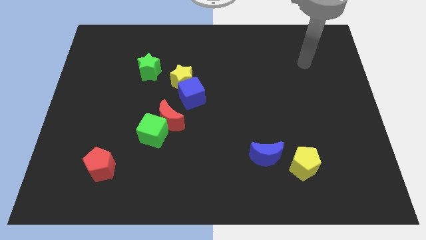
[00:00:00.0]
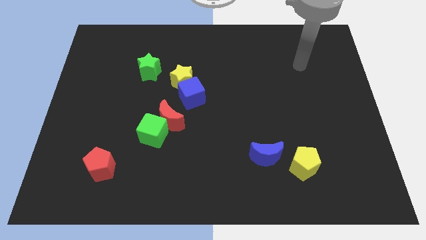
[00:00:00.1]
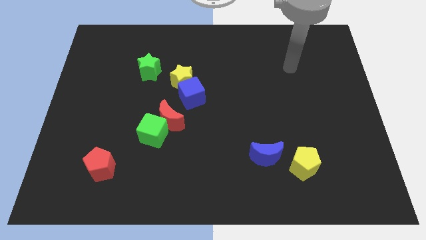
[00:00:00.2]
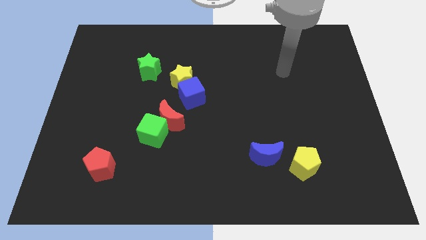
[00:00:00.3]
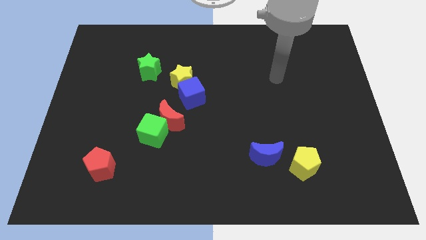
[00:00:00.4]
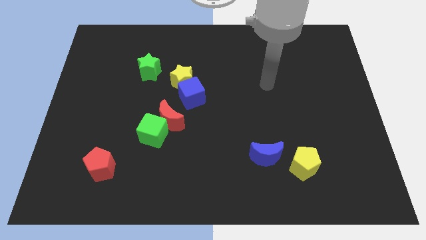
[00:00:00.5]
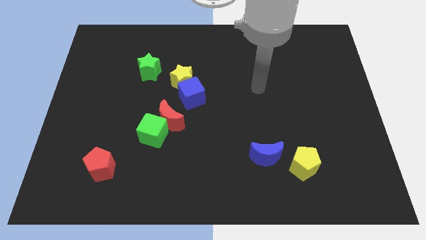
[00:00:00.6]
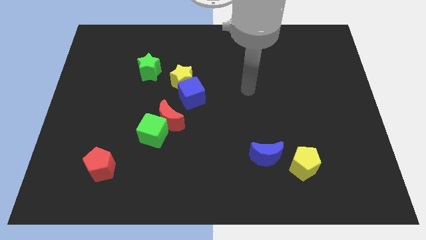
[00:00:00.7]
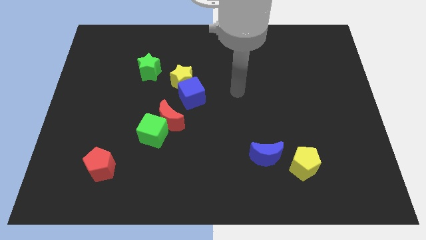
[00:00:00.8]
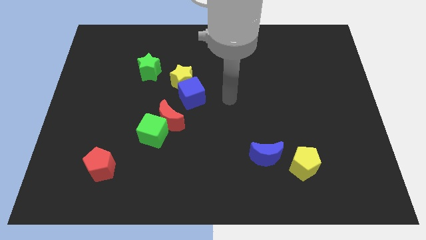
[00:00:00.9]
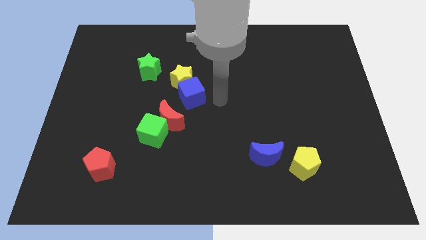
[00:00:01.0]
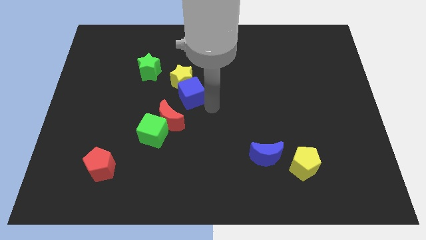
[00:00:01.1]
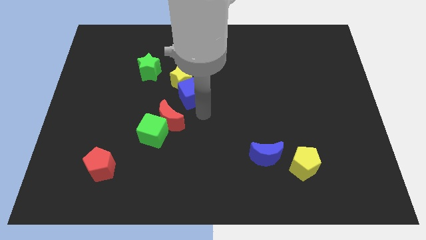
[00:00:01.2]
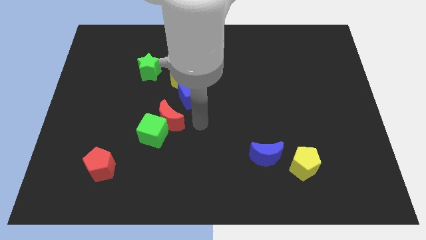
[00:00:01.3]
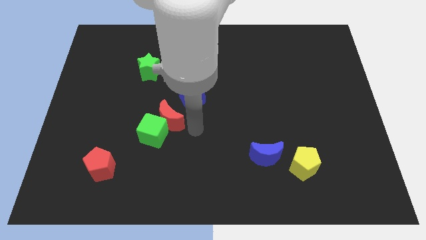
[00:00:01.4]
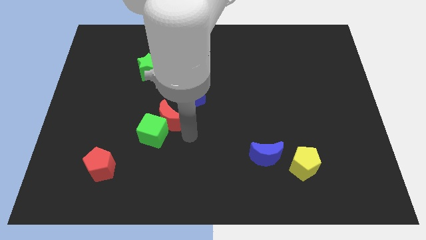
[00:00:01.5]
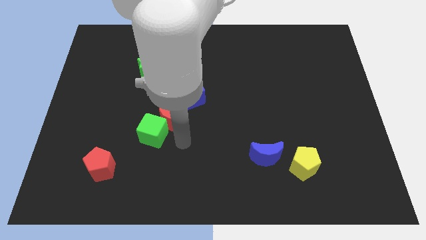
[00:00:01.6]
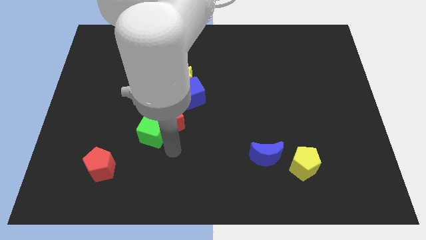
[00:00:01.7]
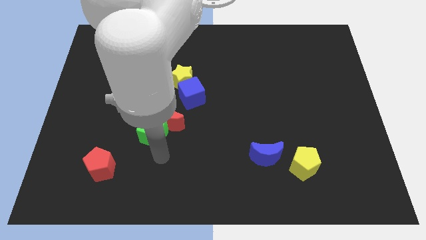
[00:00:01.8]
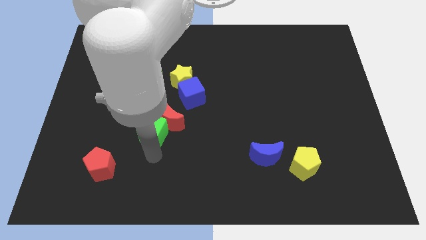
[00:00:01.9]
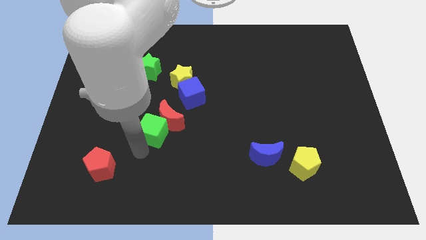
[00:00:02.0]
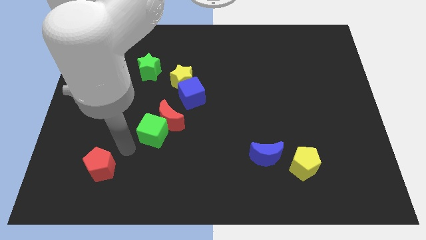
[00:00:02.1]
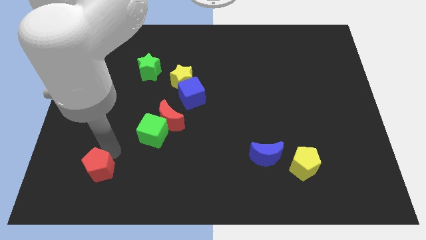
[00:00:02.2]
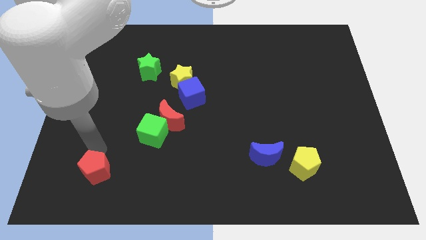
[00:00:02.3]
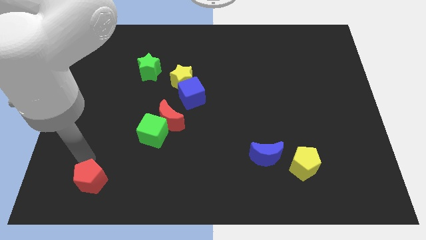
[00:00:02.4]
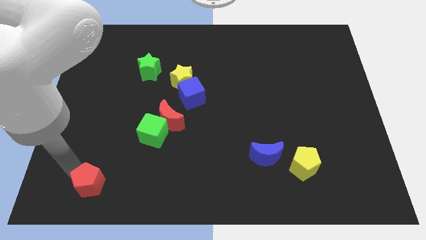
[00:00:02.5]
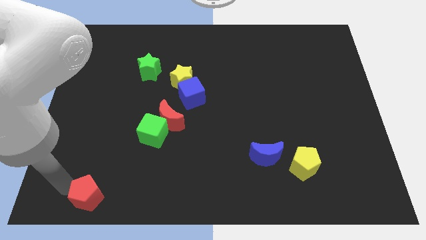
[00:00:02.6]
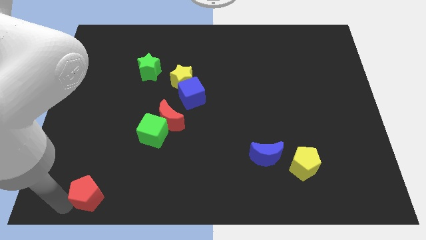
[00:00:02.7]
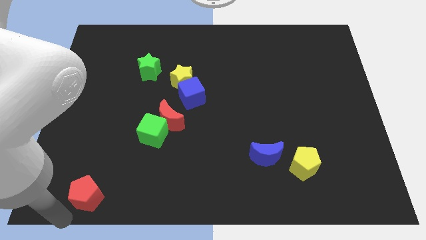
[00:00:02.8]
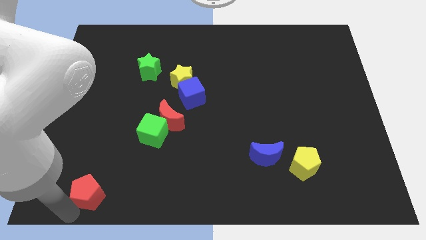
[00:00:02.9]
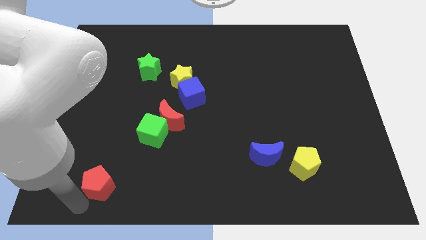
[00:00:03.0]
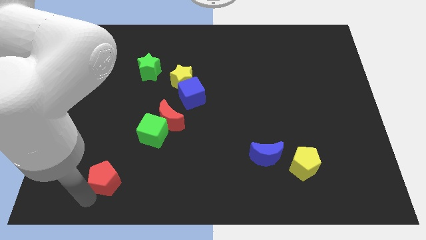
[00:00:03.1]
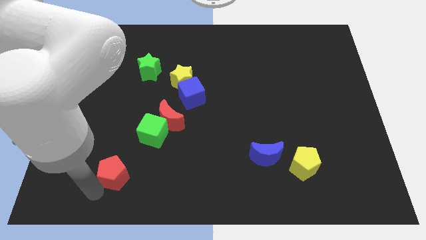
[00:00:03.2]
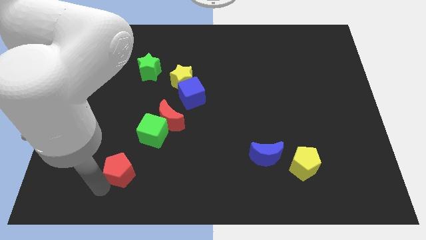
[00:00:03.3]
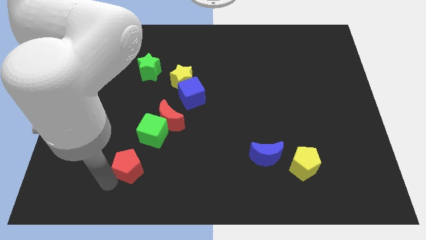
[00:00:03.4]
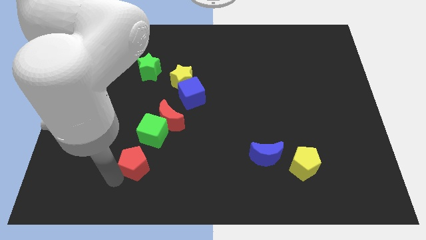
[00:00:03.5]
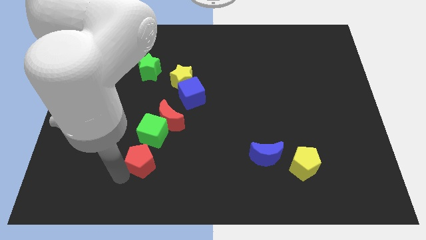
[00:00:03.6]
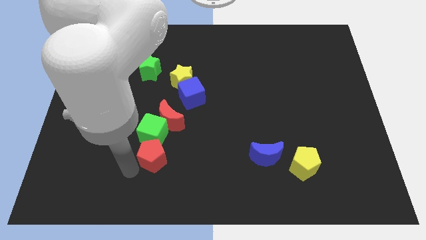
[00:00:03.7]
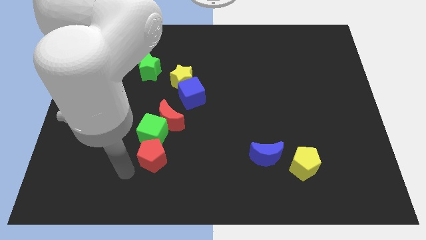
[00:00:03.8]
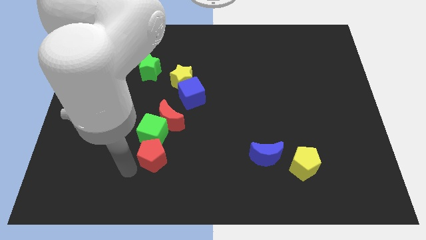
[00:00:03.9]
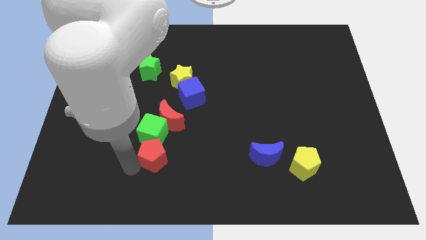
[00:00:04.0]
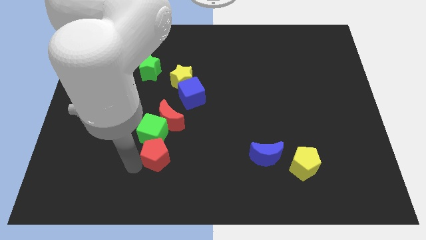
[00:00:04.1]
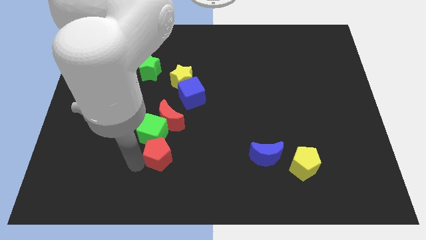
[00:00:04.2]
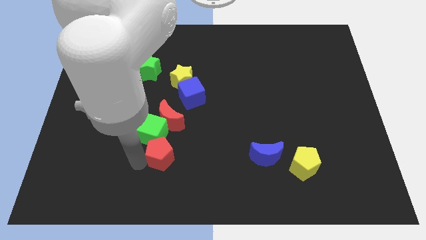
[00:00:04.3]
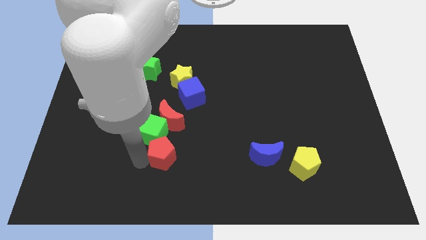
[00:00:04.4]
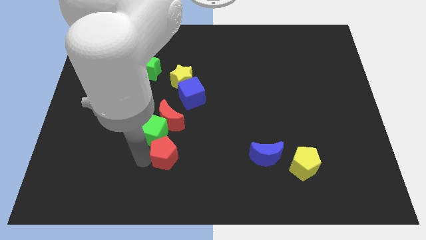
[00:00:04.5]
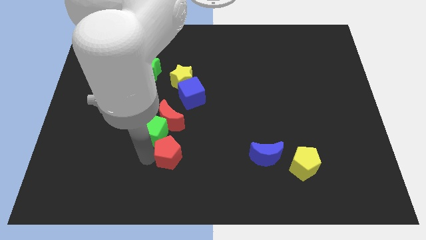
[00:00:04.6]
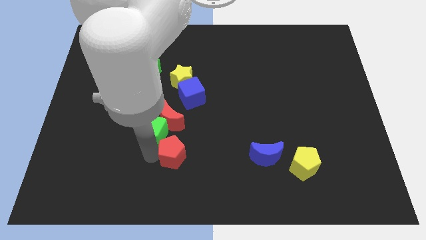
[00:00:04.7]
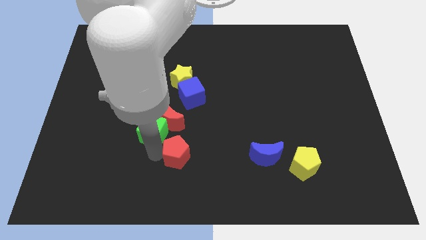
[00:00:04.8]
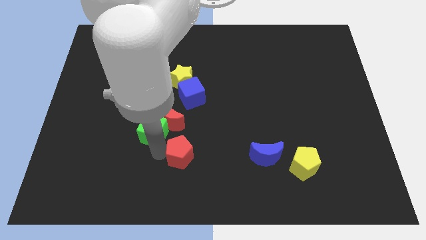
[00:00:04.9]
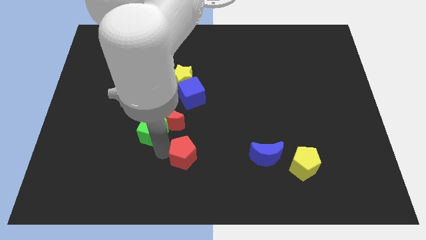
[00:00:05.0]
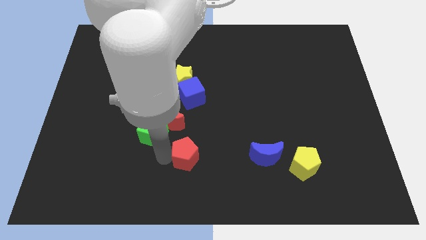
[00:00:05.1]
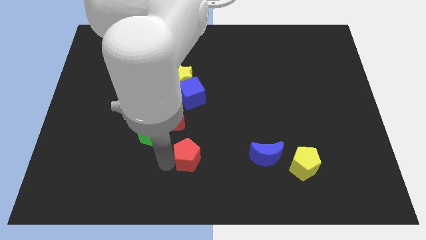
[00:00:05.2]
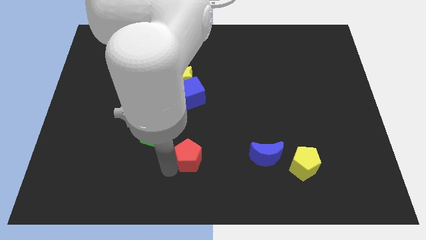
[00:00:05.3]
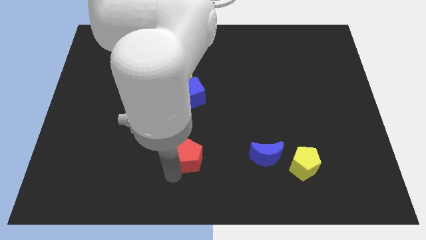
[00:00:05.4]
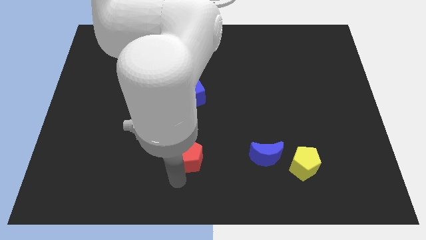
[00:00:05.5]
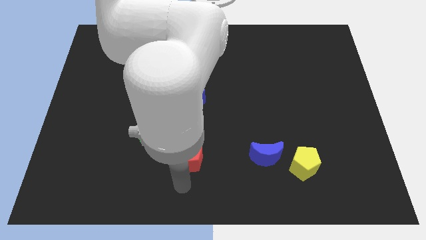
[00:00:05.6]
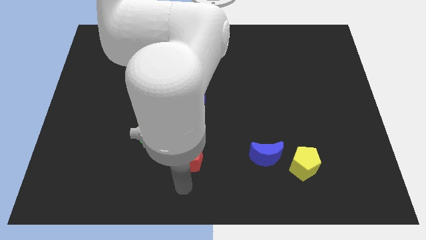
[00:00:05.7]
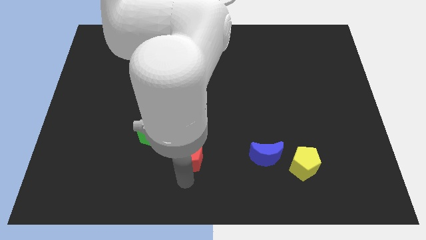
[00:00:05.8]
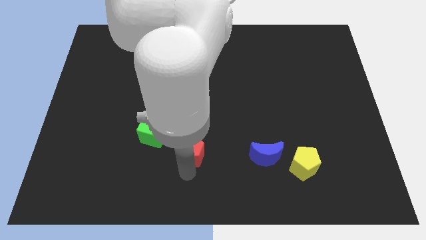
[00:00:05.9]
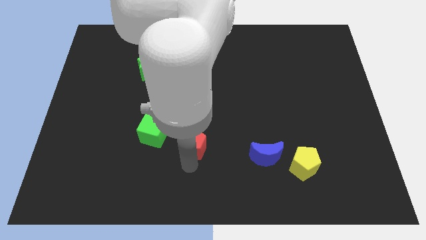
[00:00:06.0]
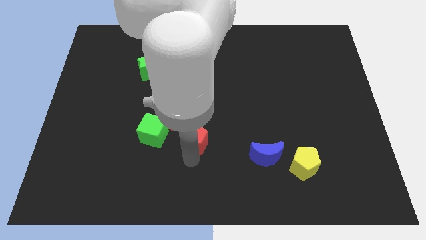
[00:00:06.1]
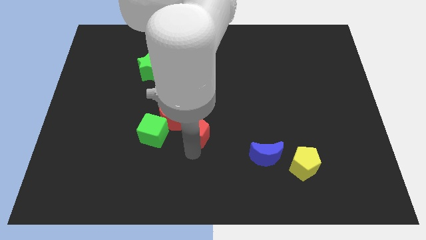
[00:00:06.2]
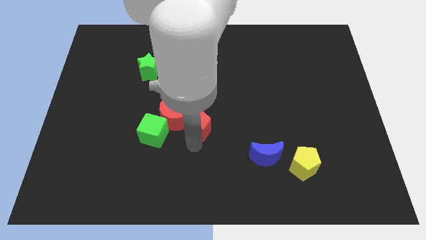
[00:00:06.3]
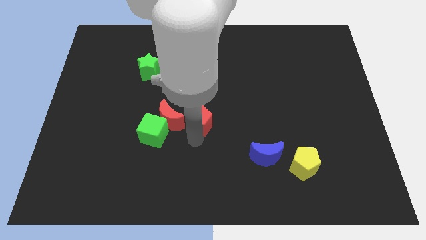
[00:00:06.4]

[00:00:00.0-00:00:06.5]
push the red pentagon up and right diagonally

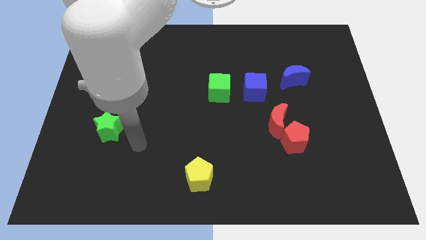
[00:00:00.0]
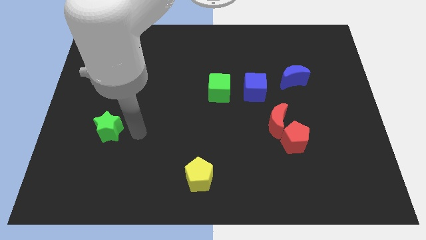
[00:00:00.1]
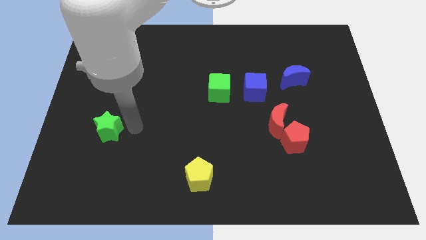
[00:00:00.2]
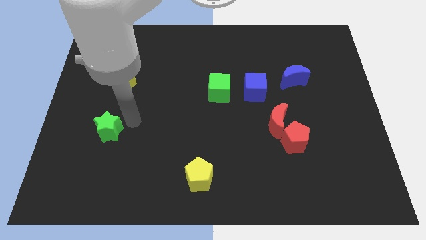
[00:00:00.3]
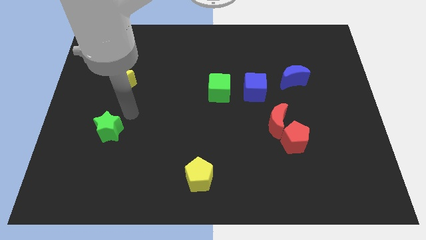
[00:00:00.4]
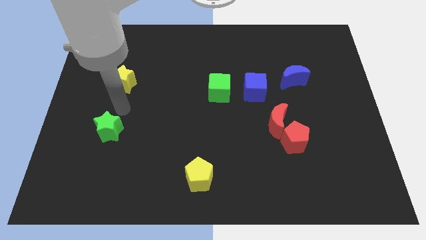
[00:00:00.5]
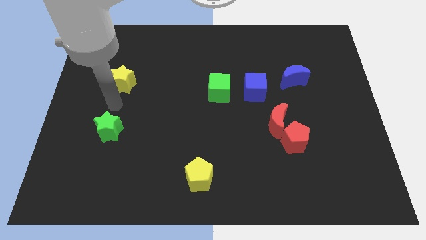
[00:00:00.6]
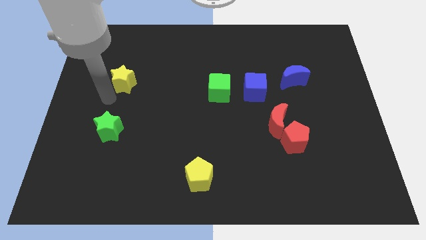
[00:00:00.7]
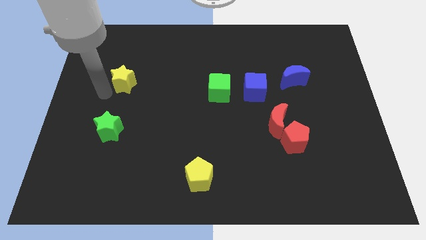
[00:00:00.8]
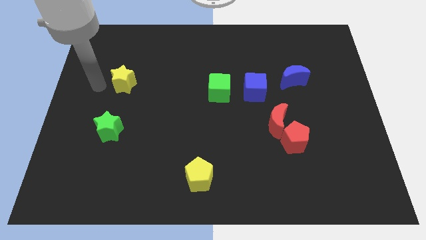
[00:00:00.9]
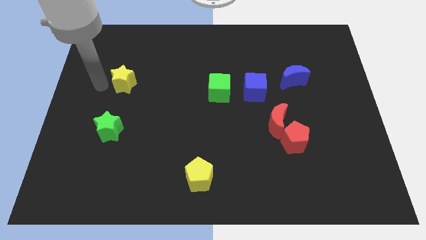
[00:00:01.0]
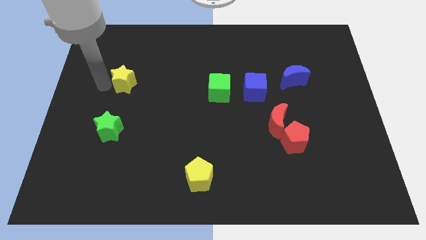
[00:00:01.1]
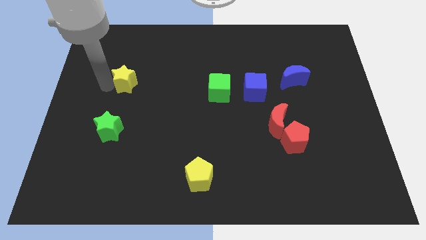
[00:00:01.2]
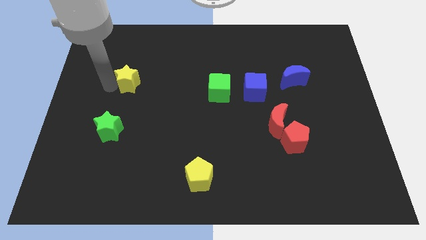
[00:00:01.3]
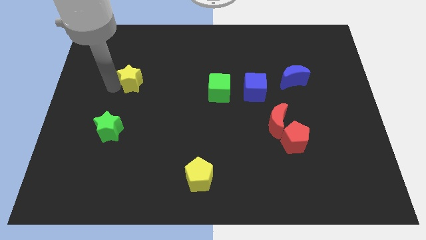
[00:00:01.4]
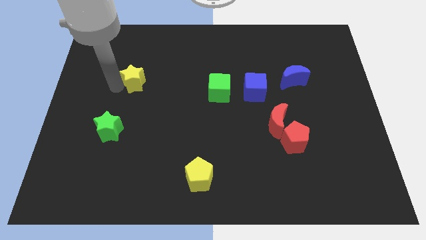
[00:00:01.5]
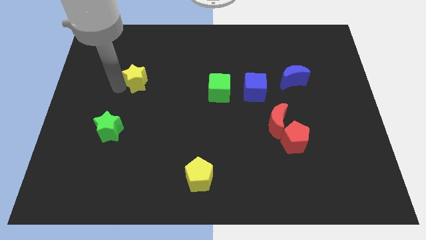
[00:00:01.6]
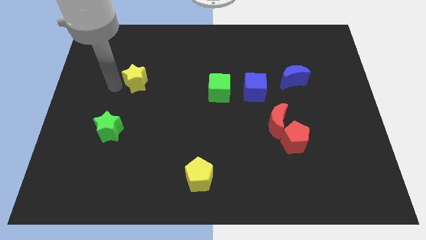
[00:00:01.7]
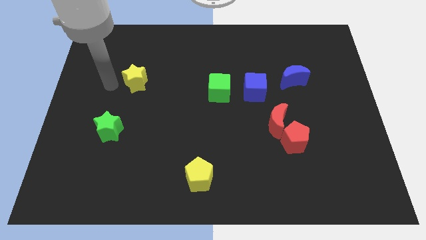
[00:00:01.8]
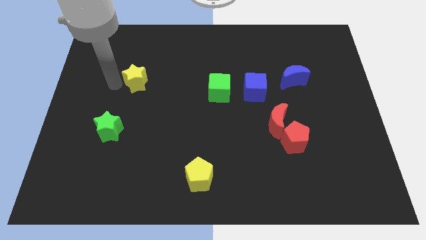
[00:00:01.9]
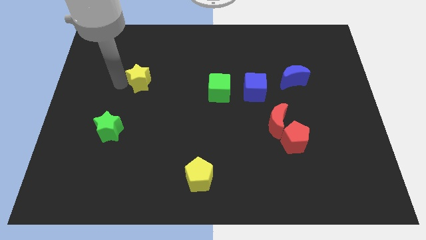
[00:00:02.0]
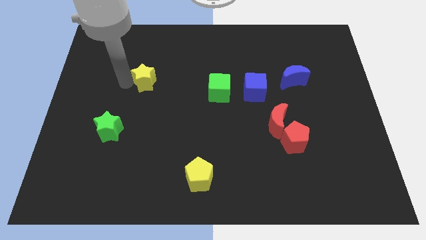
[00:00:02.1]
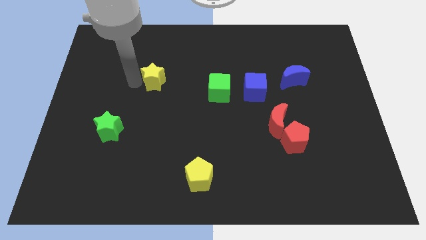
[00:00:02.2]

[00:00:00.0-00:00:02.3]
slide the yellow star to the right a bit
